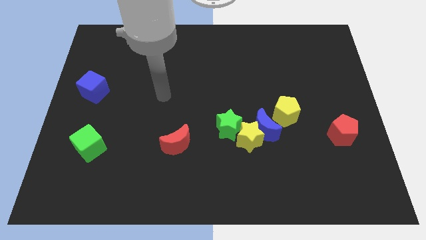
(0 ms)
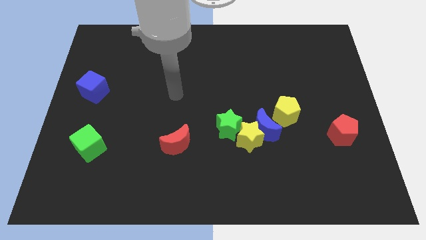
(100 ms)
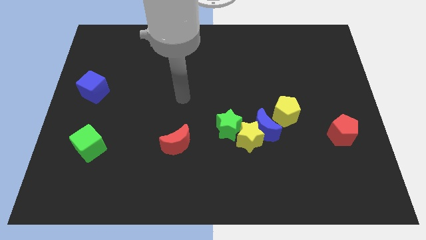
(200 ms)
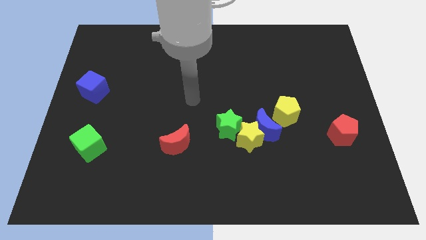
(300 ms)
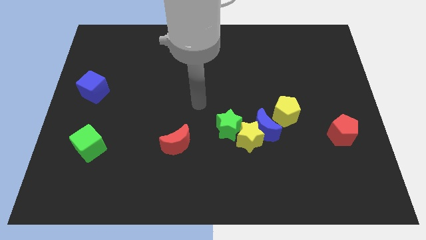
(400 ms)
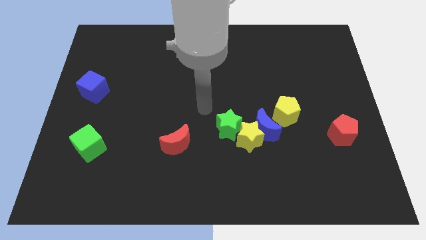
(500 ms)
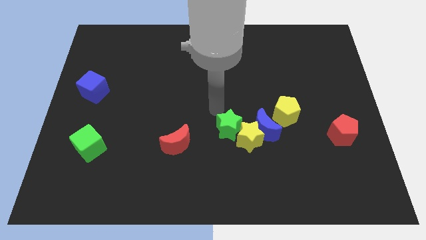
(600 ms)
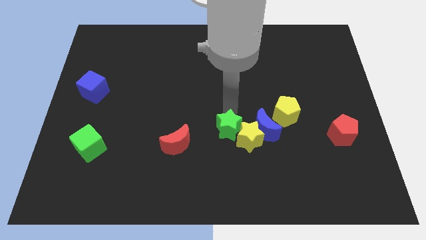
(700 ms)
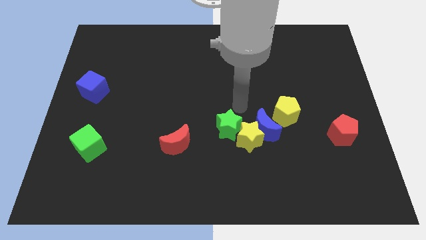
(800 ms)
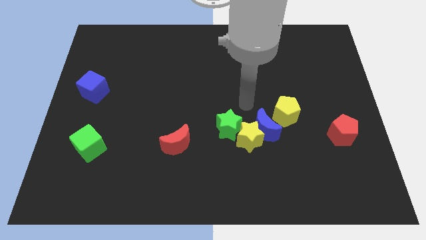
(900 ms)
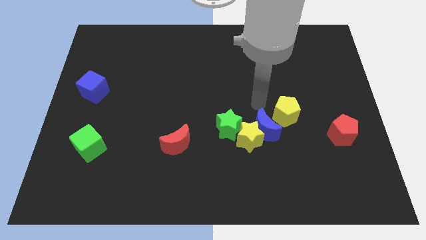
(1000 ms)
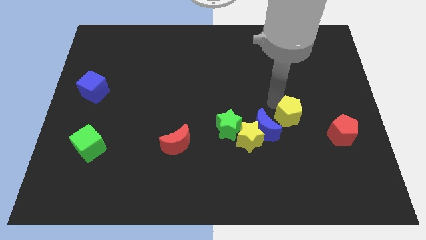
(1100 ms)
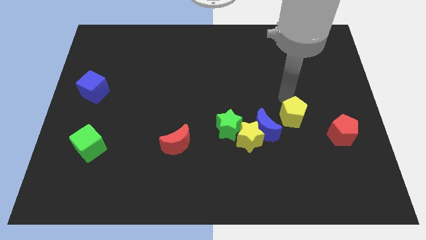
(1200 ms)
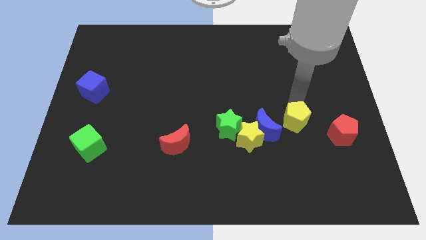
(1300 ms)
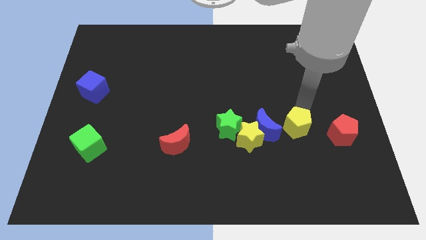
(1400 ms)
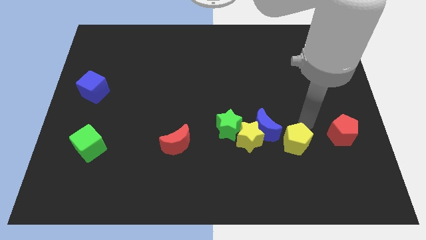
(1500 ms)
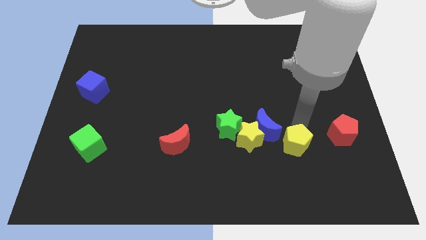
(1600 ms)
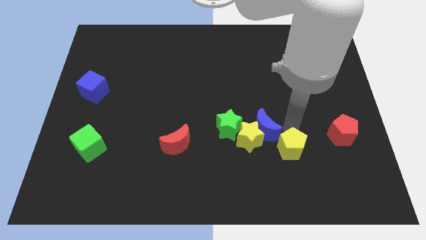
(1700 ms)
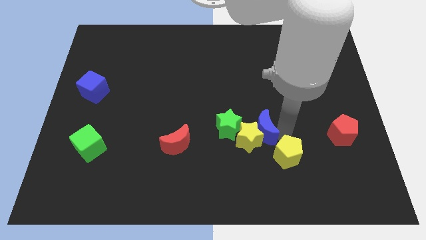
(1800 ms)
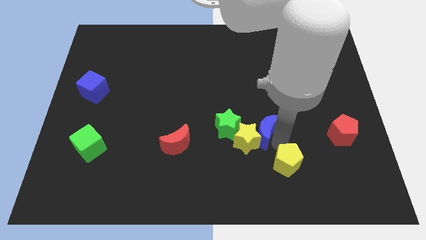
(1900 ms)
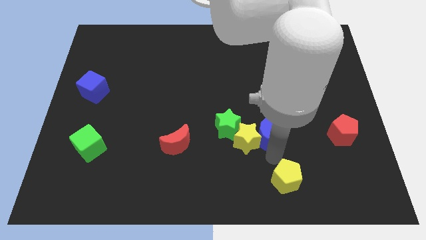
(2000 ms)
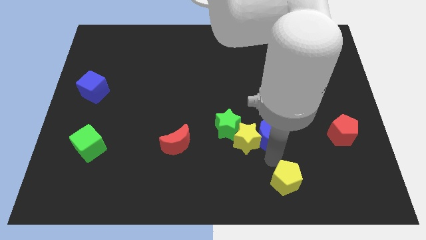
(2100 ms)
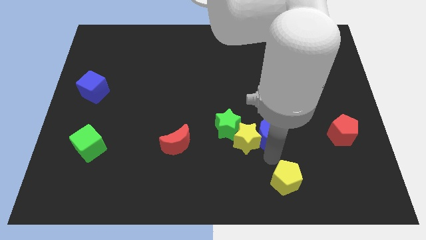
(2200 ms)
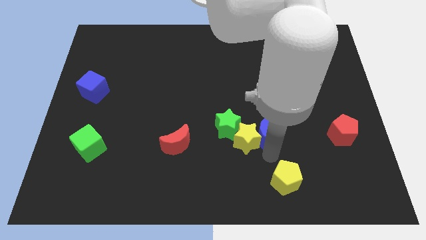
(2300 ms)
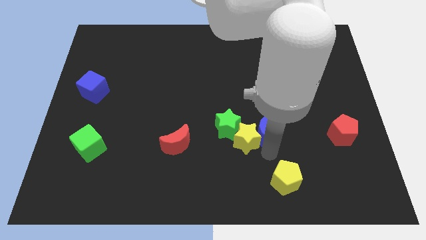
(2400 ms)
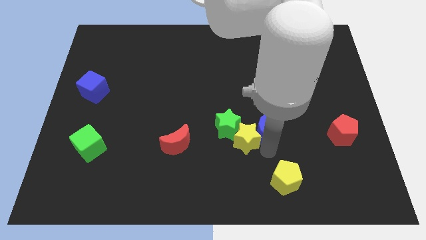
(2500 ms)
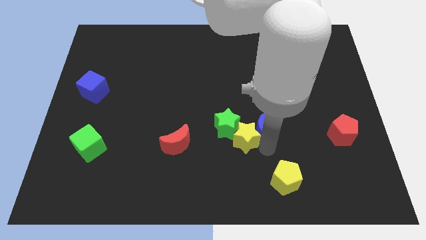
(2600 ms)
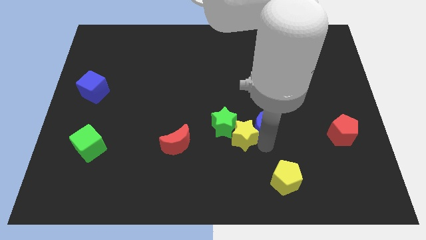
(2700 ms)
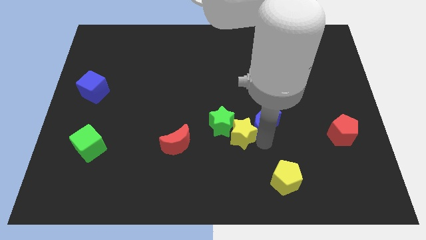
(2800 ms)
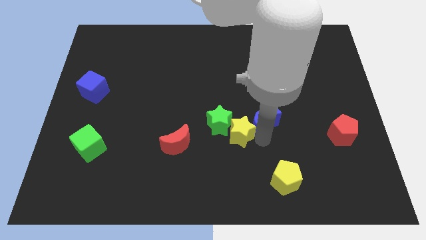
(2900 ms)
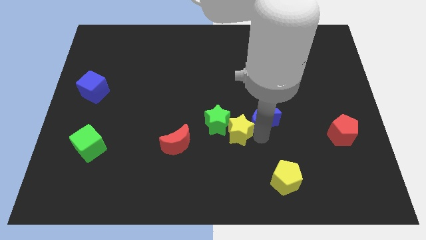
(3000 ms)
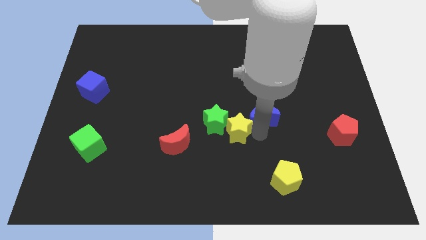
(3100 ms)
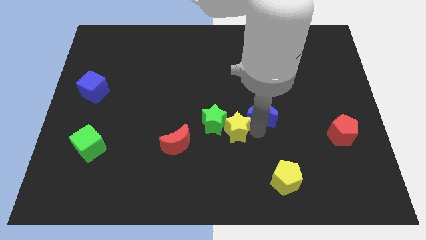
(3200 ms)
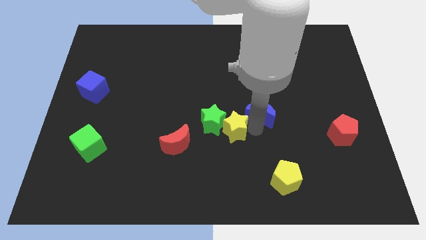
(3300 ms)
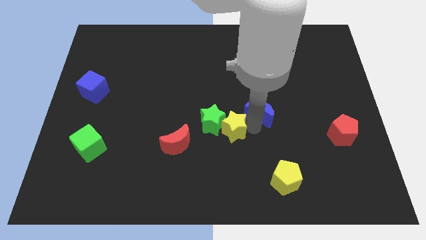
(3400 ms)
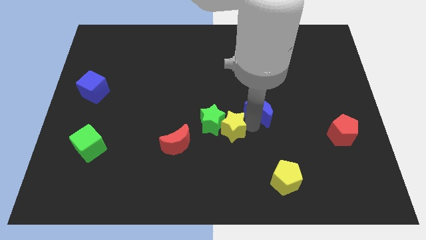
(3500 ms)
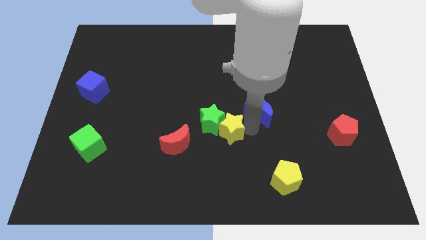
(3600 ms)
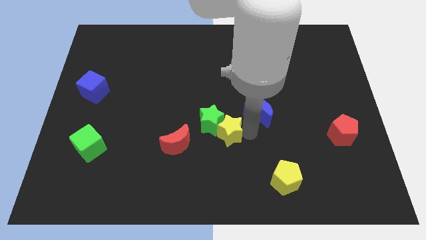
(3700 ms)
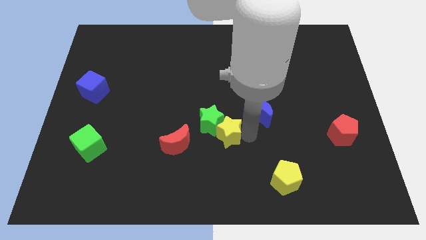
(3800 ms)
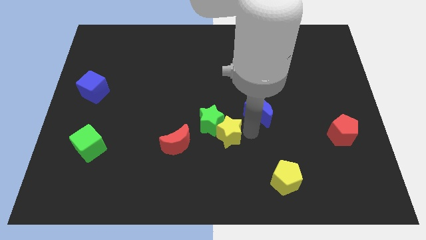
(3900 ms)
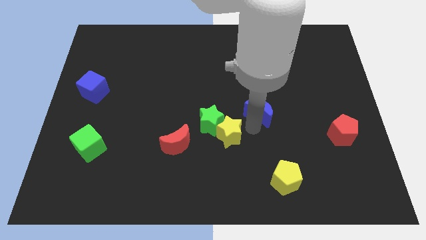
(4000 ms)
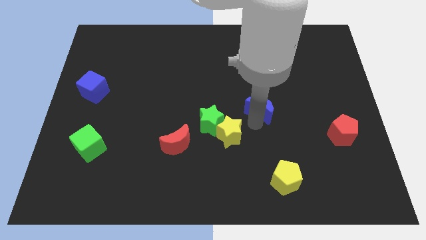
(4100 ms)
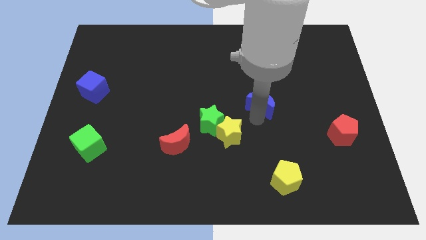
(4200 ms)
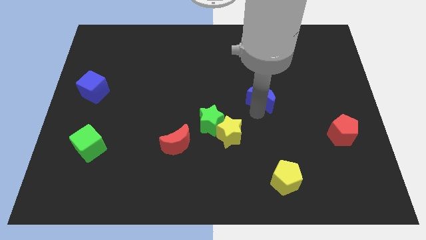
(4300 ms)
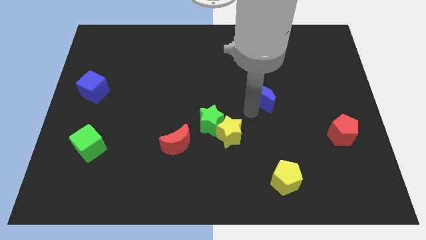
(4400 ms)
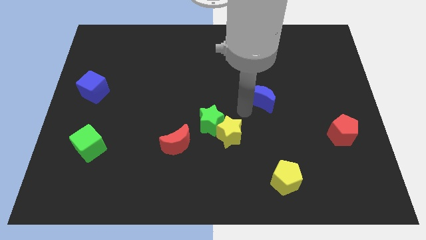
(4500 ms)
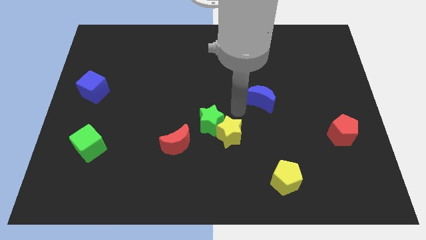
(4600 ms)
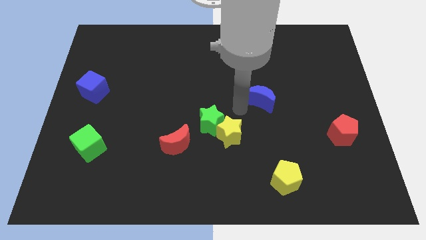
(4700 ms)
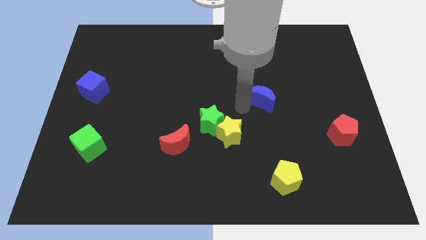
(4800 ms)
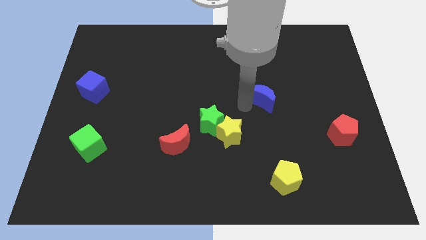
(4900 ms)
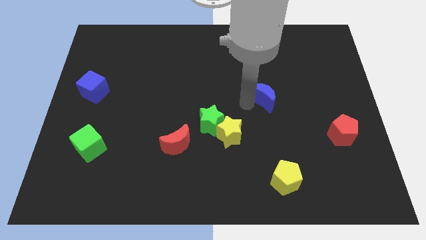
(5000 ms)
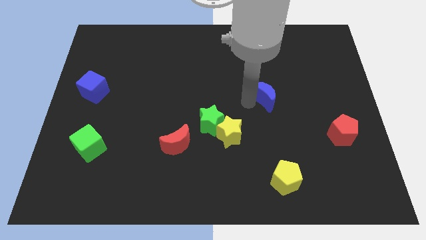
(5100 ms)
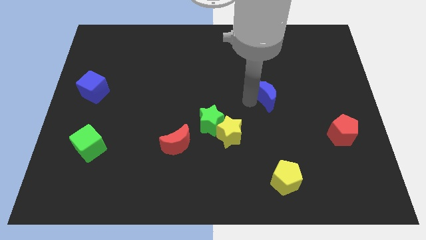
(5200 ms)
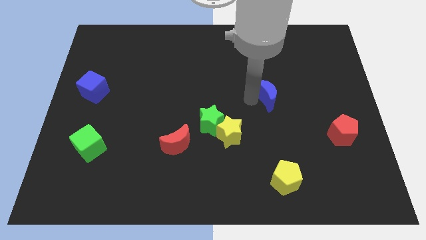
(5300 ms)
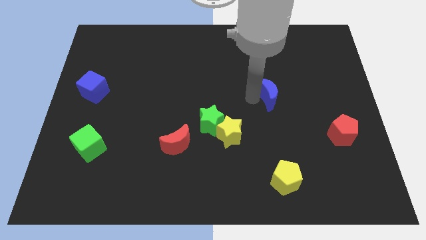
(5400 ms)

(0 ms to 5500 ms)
move the blue moon a little upwards and then to the right

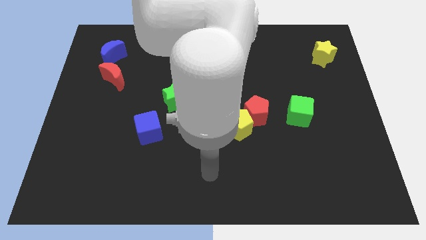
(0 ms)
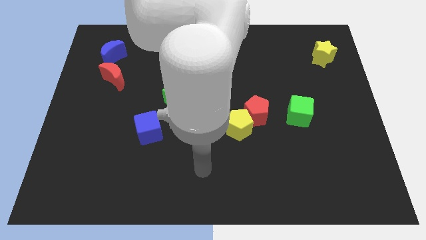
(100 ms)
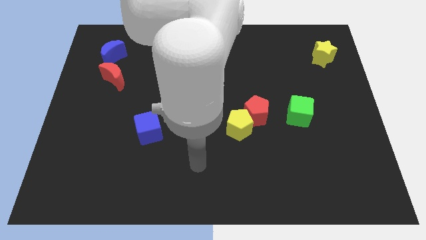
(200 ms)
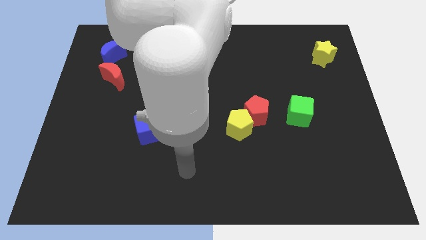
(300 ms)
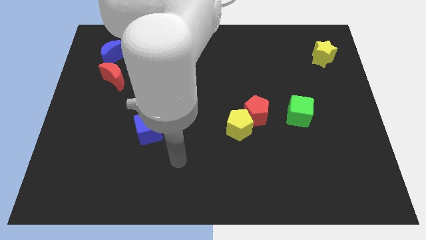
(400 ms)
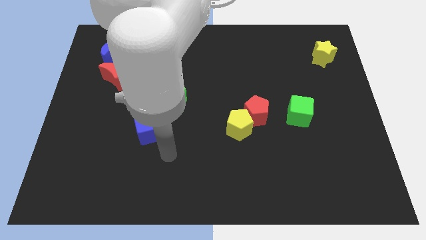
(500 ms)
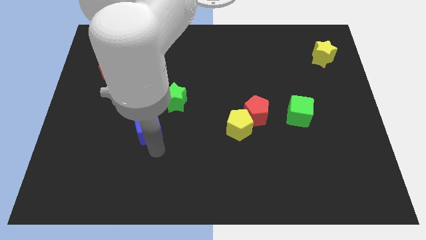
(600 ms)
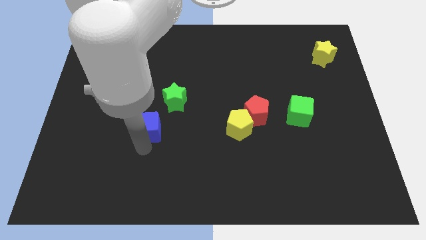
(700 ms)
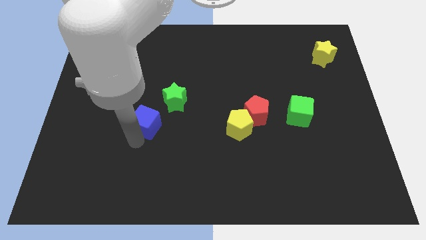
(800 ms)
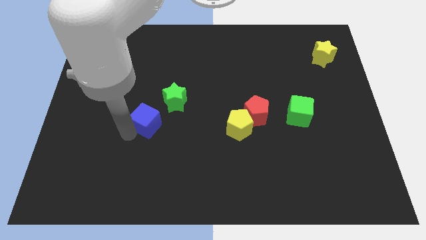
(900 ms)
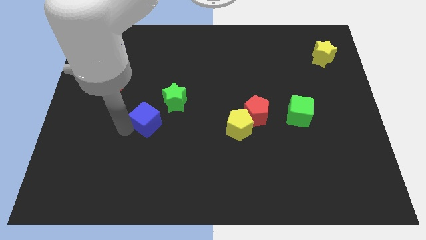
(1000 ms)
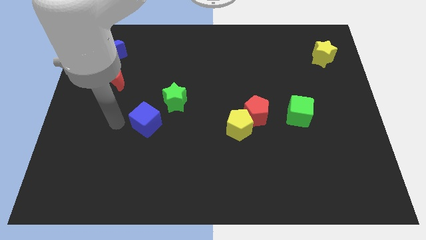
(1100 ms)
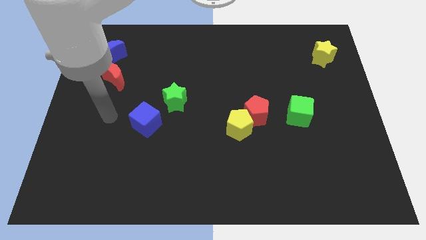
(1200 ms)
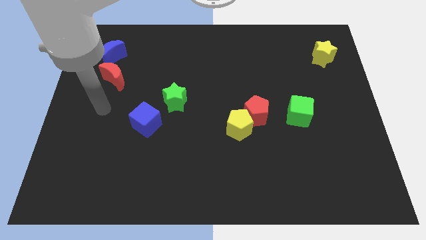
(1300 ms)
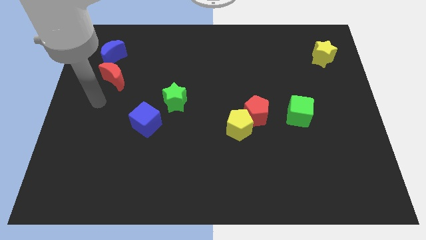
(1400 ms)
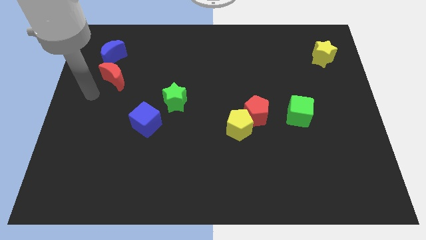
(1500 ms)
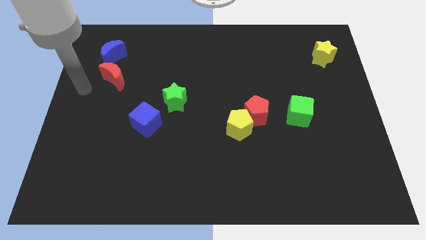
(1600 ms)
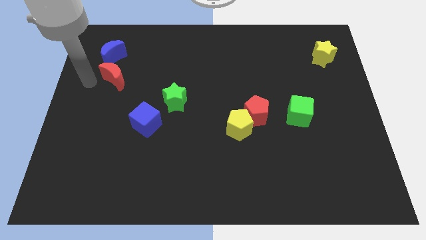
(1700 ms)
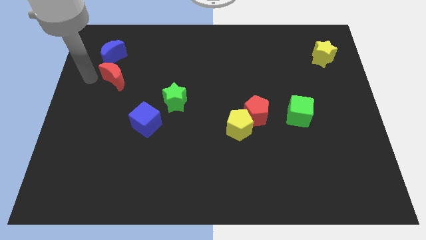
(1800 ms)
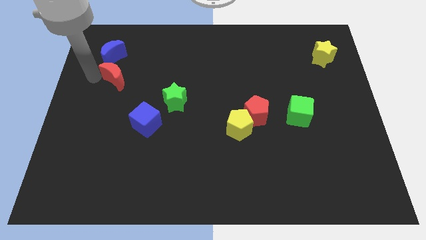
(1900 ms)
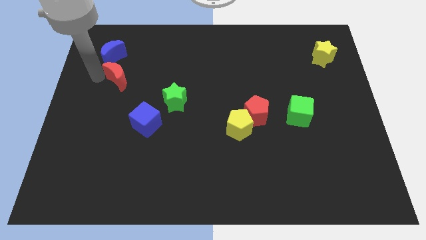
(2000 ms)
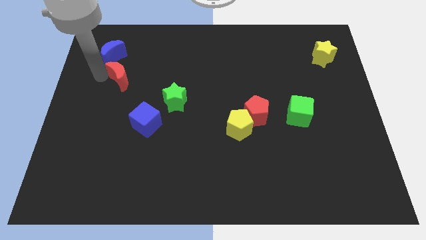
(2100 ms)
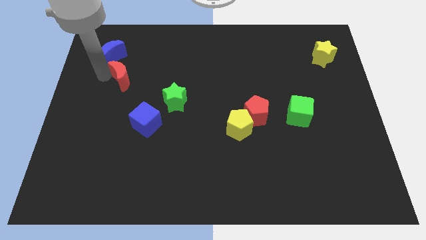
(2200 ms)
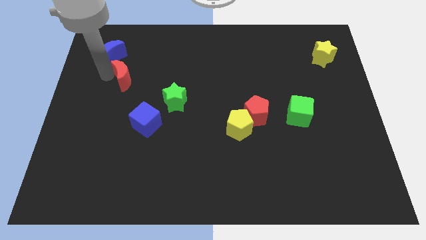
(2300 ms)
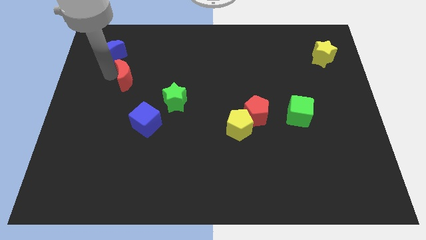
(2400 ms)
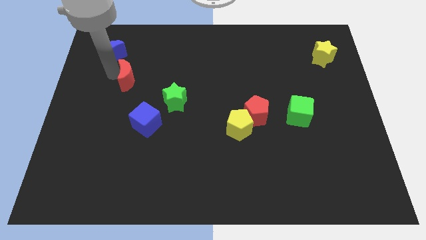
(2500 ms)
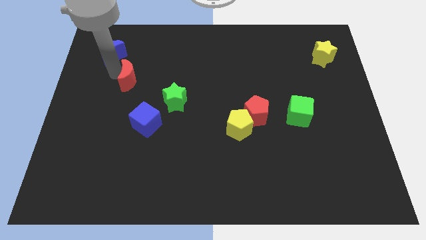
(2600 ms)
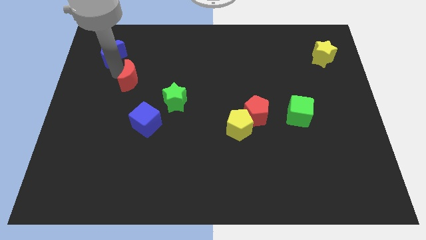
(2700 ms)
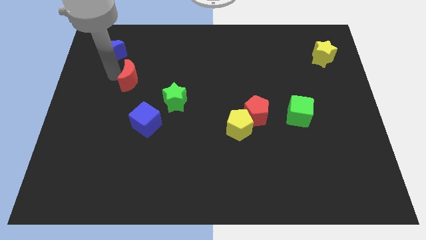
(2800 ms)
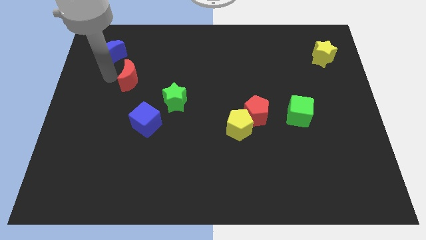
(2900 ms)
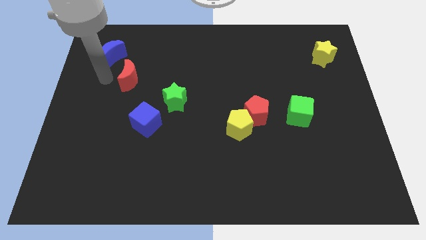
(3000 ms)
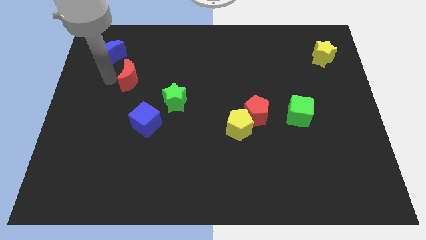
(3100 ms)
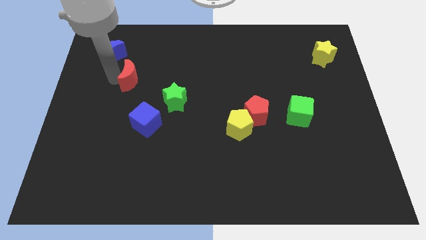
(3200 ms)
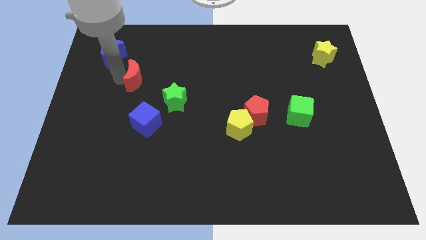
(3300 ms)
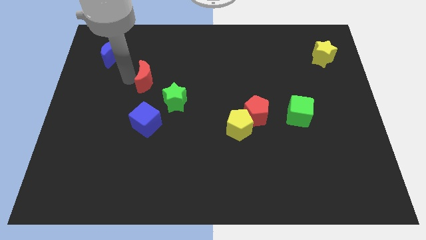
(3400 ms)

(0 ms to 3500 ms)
move the red moon slightly to the right
